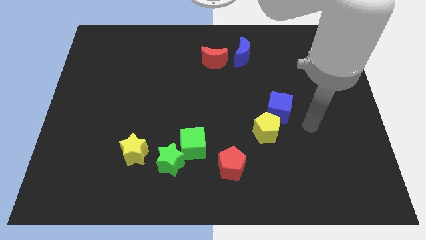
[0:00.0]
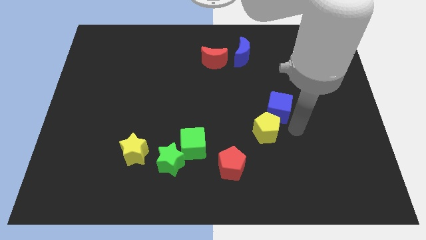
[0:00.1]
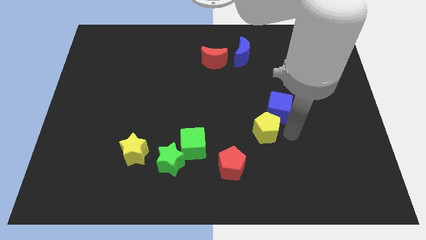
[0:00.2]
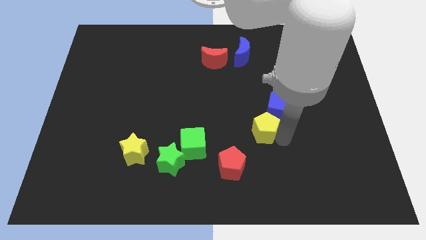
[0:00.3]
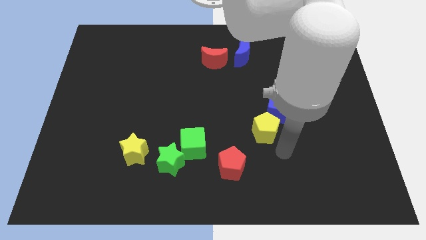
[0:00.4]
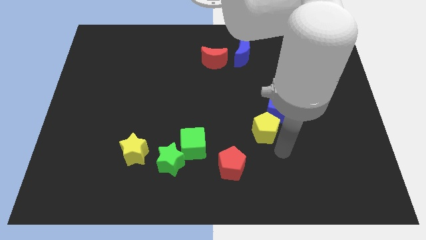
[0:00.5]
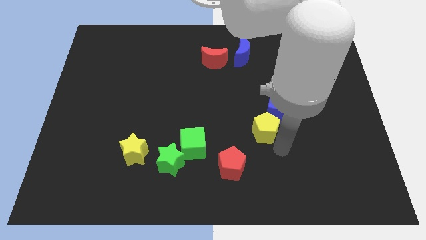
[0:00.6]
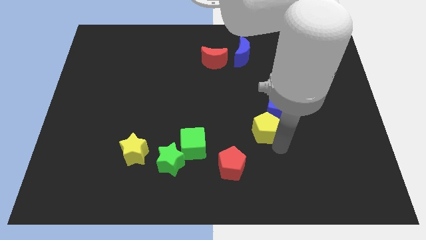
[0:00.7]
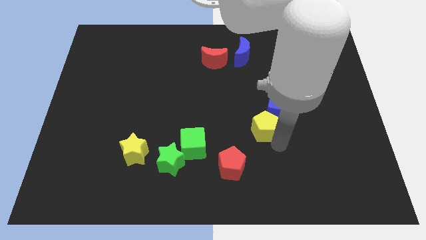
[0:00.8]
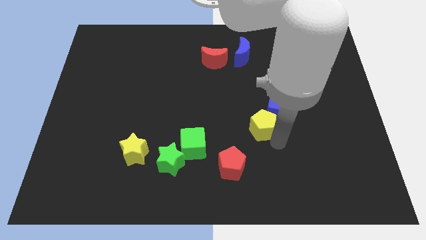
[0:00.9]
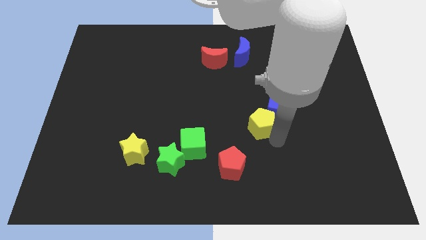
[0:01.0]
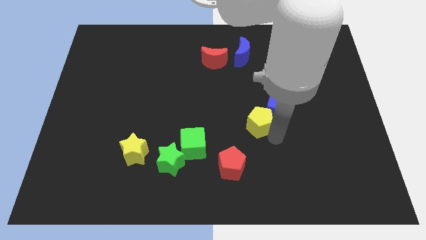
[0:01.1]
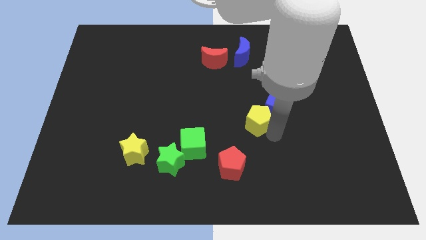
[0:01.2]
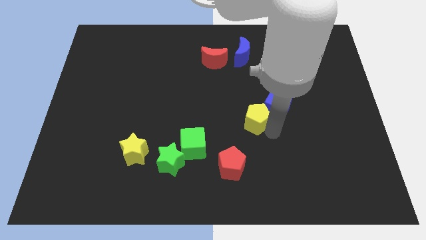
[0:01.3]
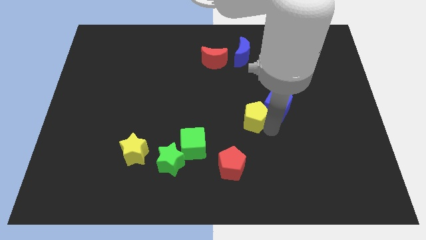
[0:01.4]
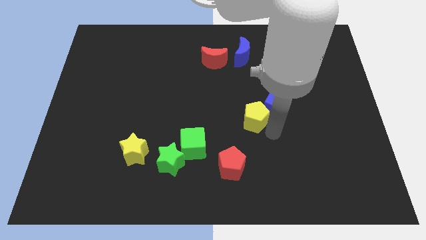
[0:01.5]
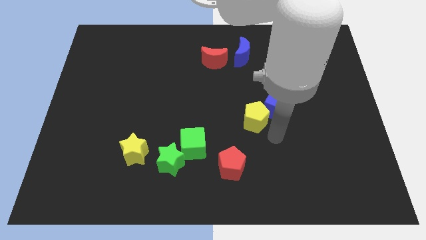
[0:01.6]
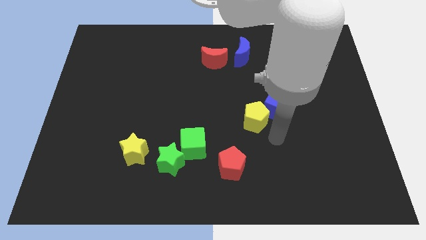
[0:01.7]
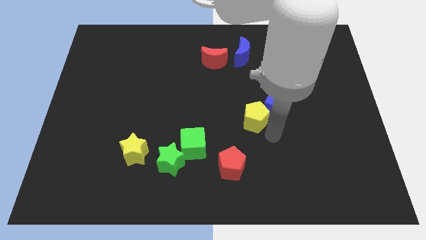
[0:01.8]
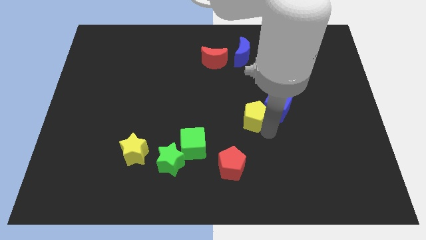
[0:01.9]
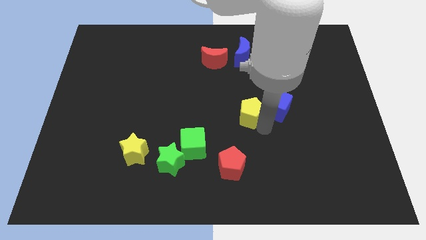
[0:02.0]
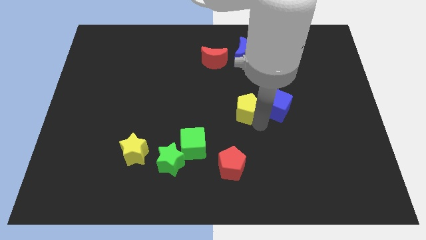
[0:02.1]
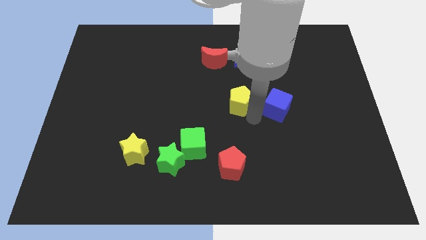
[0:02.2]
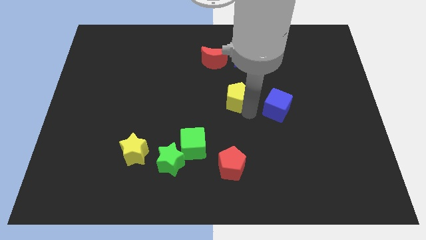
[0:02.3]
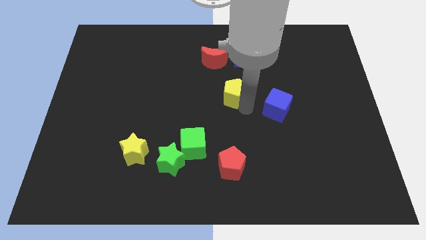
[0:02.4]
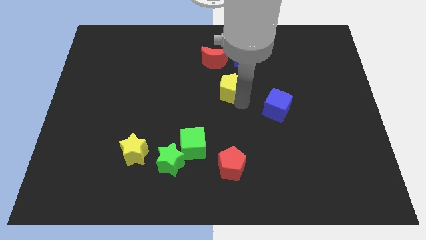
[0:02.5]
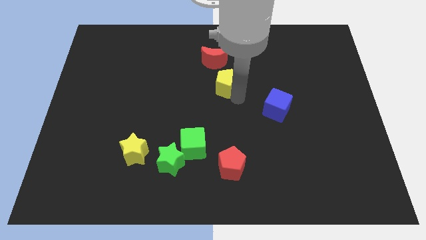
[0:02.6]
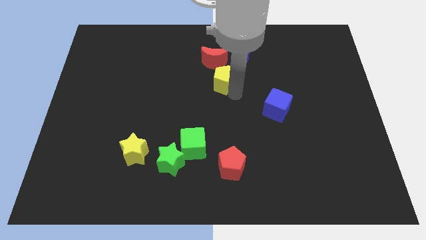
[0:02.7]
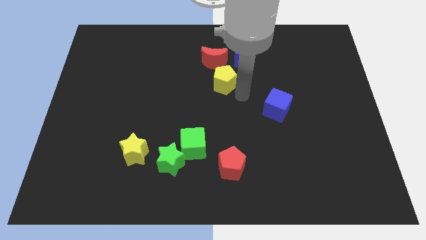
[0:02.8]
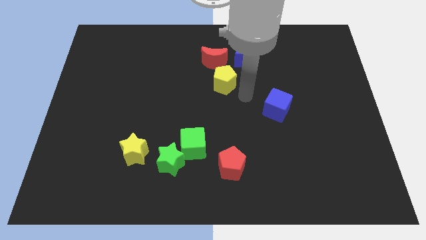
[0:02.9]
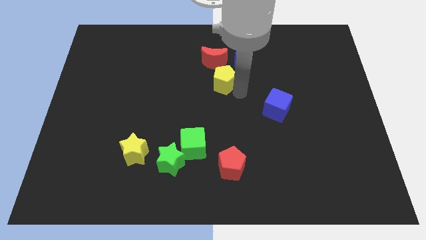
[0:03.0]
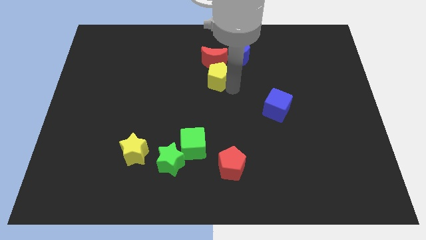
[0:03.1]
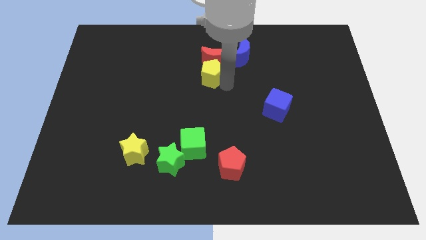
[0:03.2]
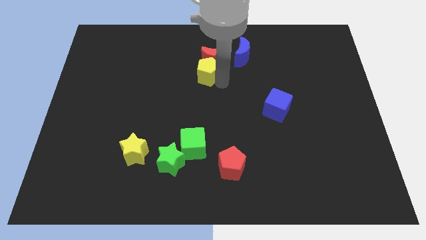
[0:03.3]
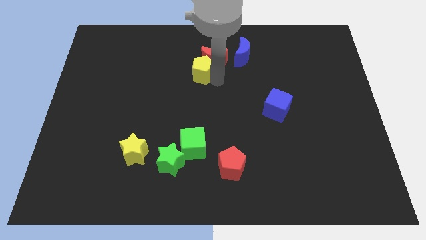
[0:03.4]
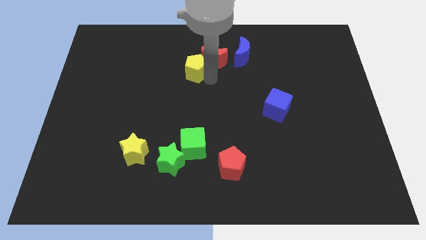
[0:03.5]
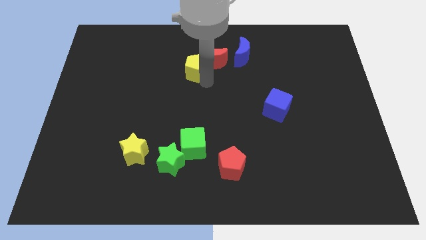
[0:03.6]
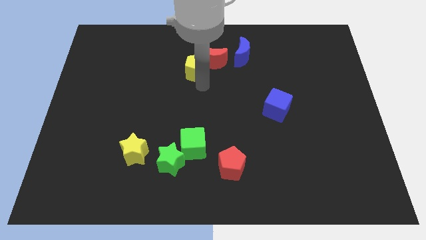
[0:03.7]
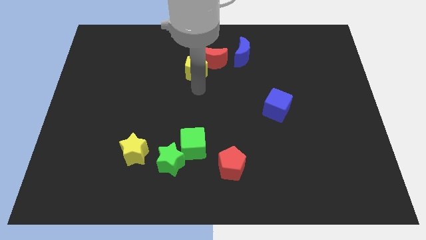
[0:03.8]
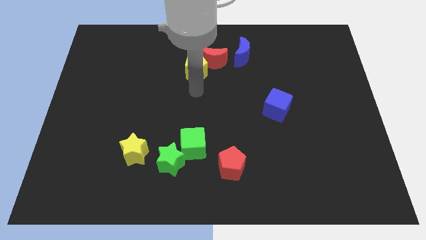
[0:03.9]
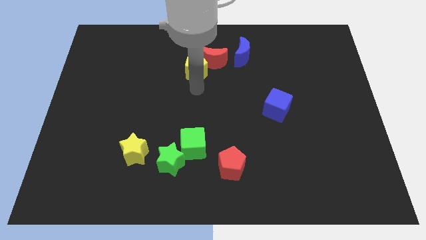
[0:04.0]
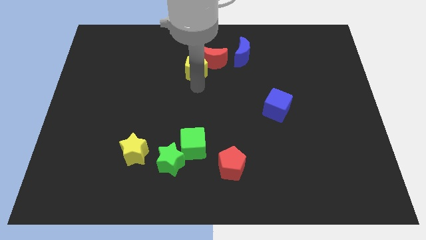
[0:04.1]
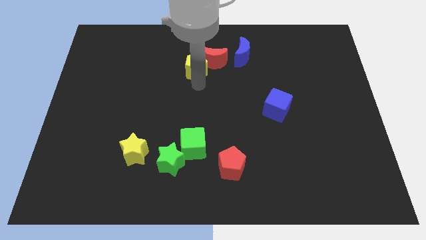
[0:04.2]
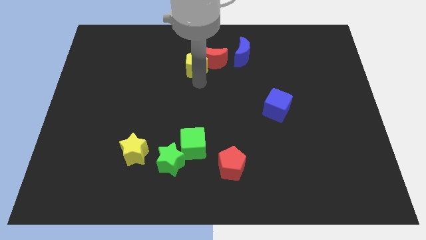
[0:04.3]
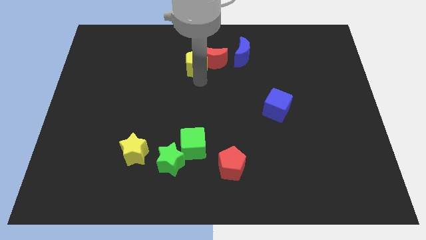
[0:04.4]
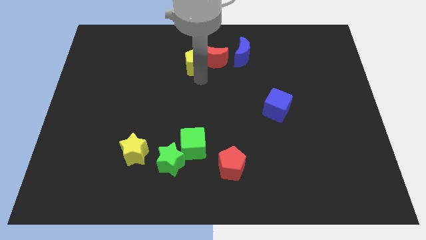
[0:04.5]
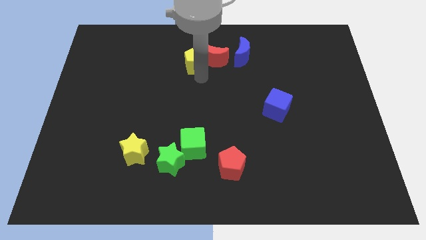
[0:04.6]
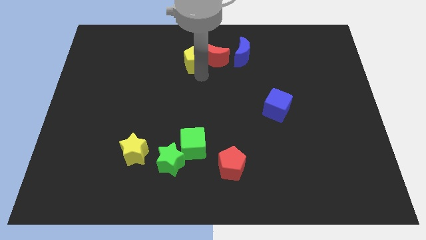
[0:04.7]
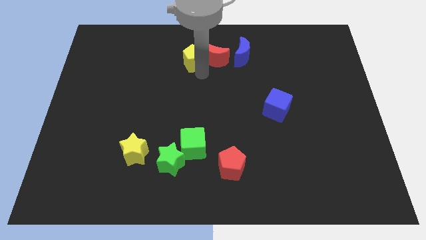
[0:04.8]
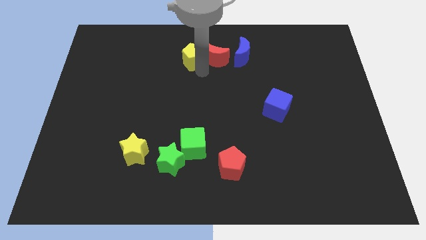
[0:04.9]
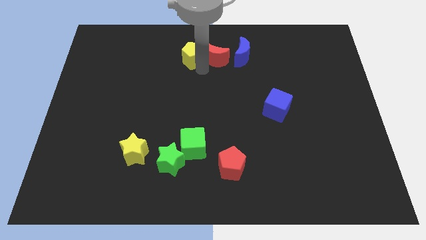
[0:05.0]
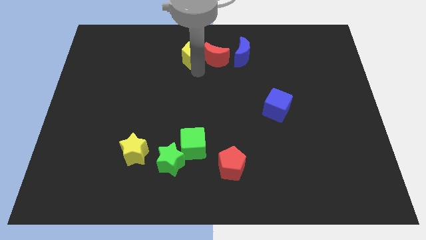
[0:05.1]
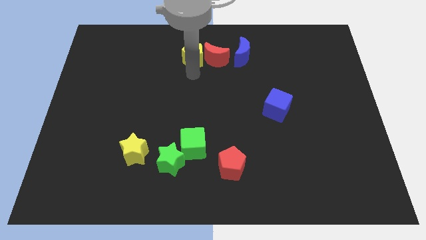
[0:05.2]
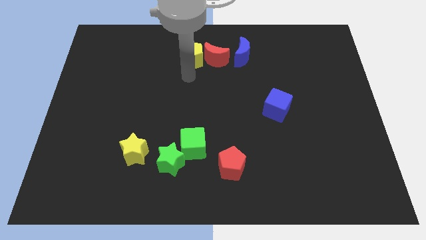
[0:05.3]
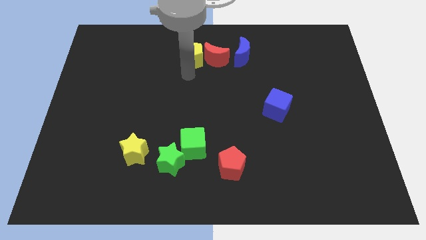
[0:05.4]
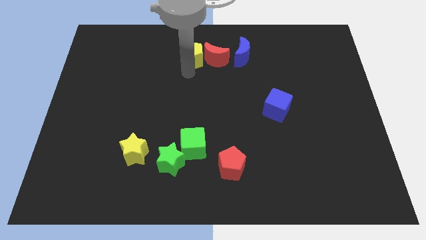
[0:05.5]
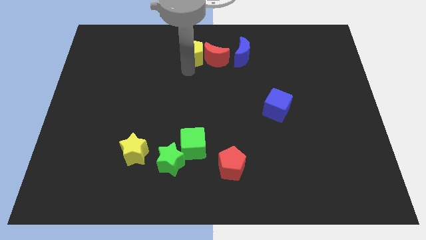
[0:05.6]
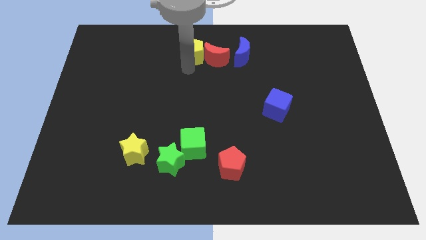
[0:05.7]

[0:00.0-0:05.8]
move the yellow pentagon to the towards your base

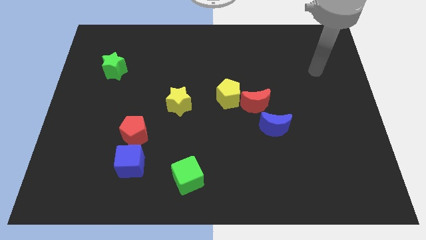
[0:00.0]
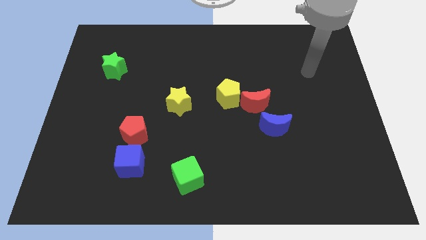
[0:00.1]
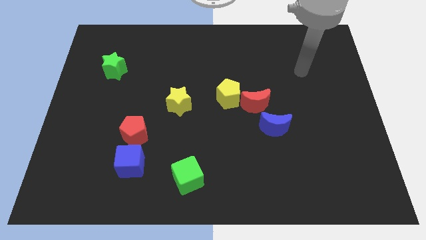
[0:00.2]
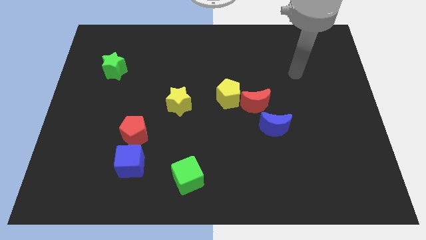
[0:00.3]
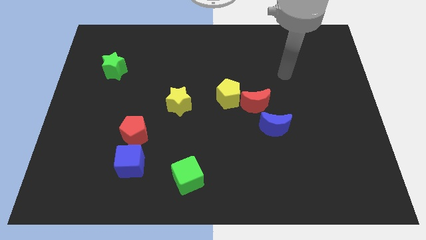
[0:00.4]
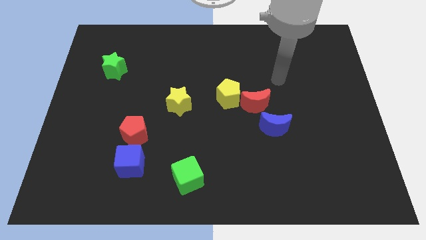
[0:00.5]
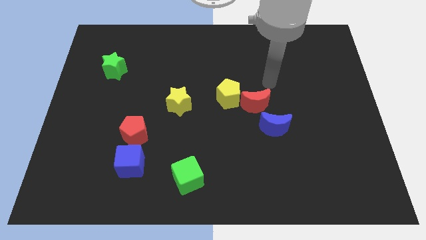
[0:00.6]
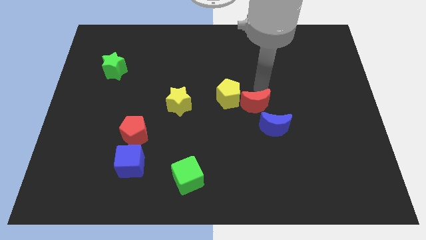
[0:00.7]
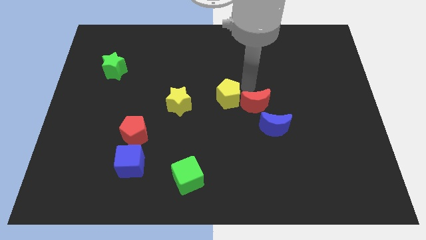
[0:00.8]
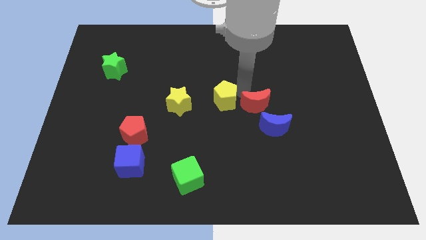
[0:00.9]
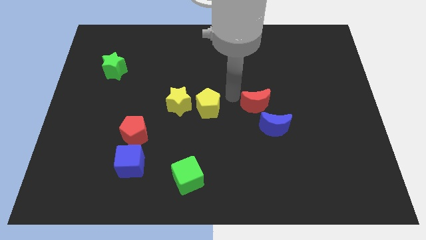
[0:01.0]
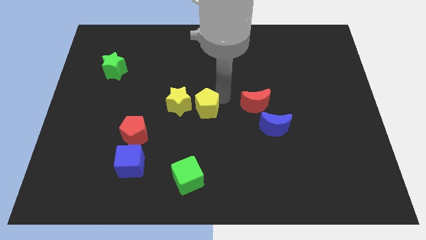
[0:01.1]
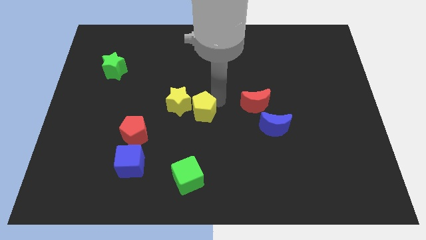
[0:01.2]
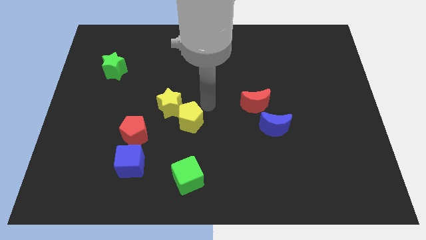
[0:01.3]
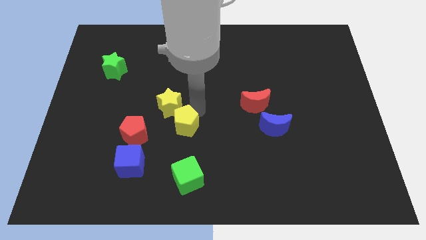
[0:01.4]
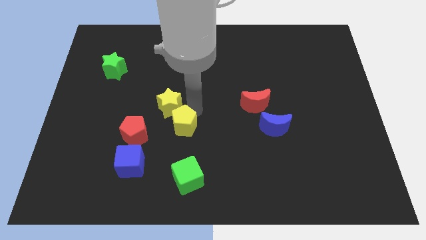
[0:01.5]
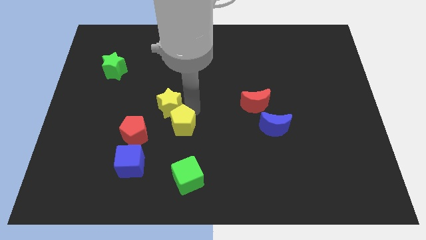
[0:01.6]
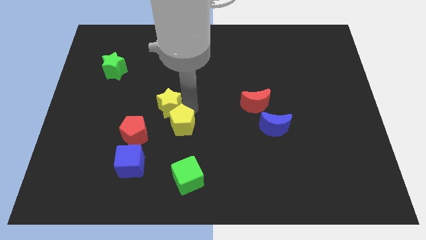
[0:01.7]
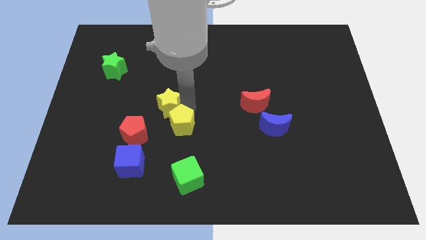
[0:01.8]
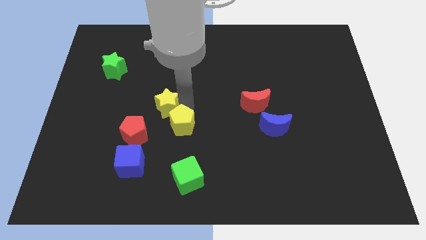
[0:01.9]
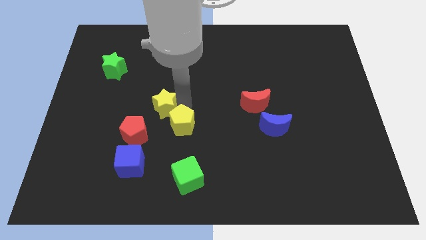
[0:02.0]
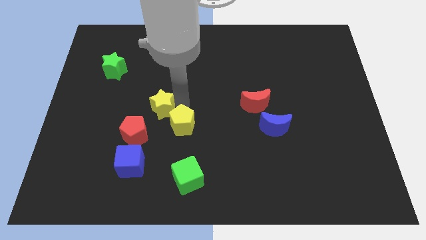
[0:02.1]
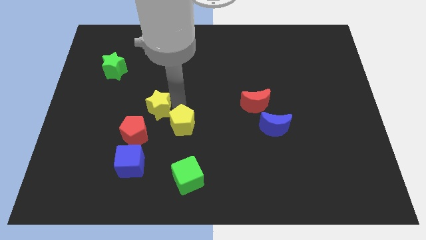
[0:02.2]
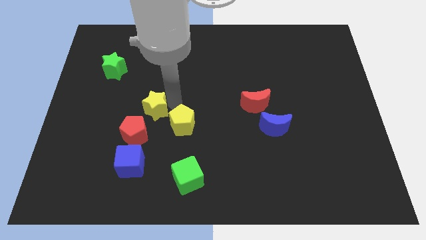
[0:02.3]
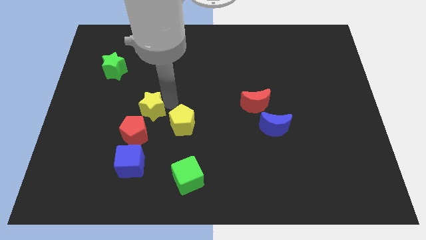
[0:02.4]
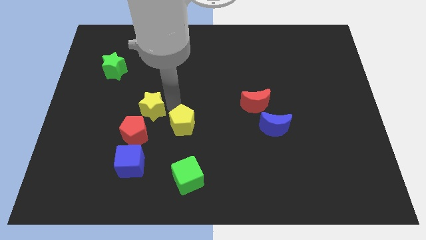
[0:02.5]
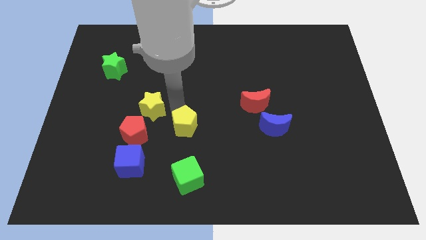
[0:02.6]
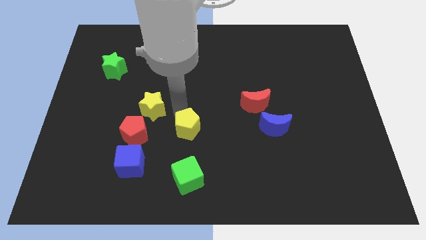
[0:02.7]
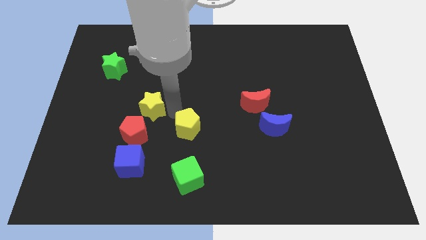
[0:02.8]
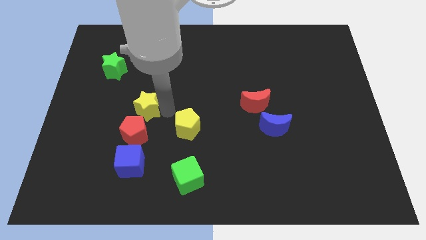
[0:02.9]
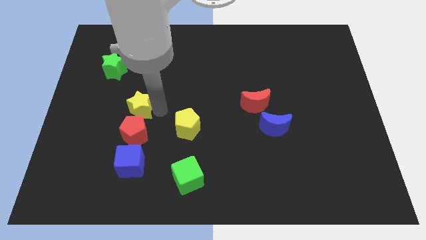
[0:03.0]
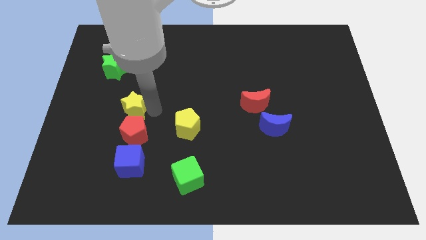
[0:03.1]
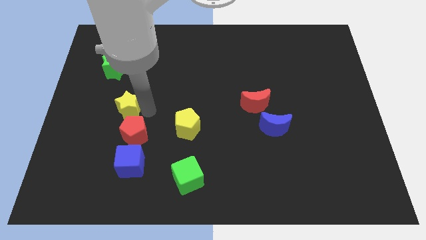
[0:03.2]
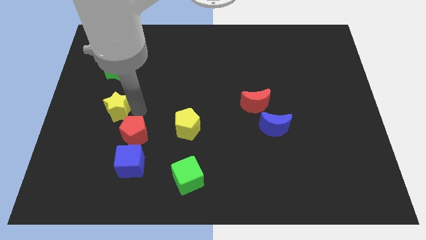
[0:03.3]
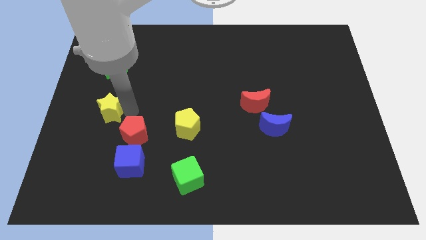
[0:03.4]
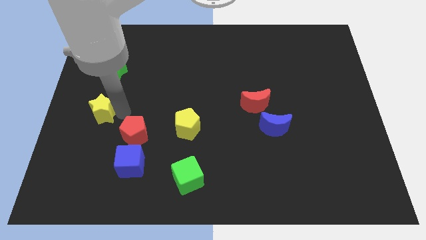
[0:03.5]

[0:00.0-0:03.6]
slide the yellow star to the left side of the board
